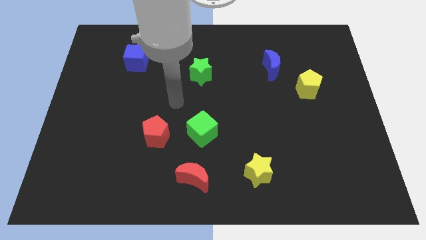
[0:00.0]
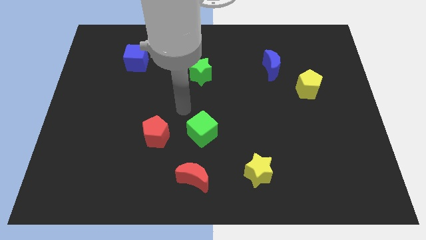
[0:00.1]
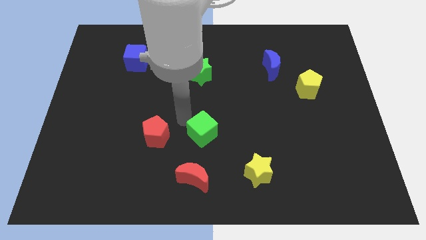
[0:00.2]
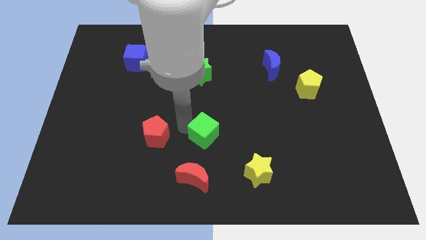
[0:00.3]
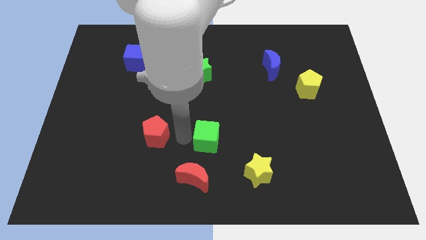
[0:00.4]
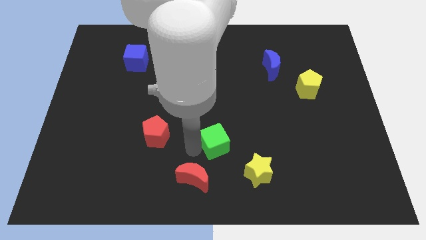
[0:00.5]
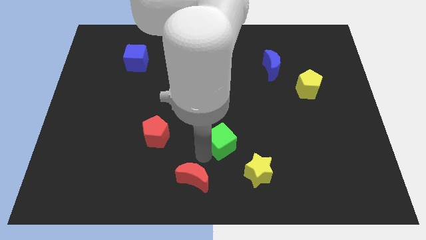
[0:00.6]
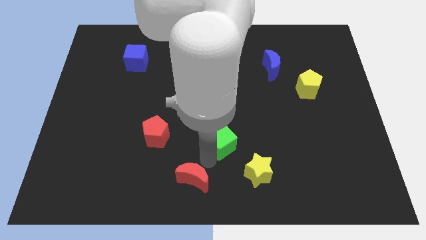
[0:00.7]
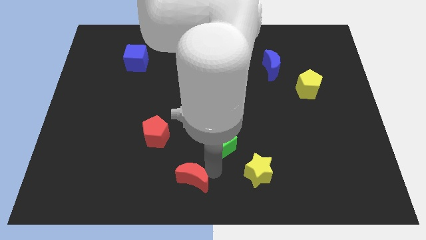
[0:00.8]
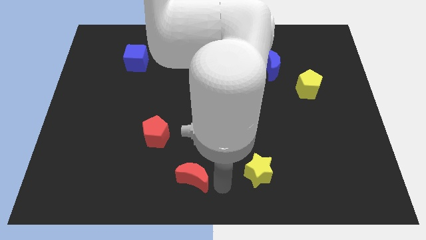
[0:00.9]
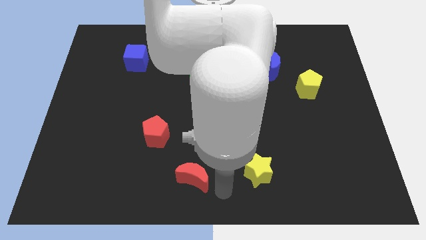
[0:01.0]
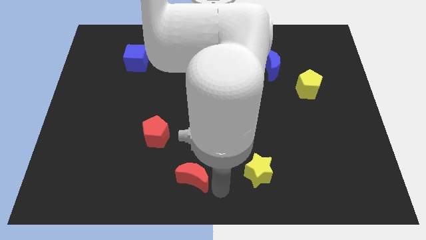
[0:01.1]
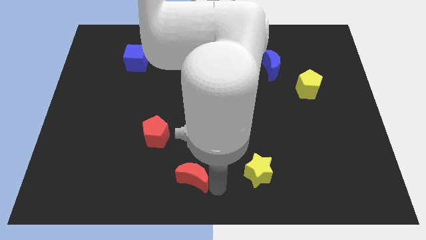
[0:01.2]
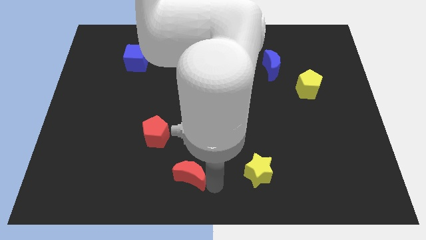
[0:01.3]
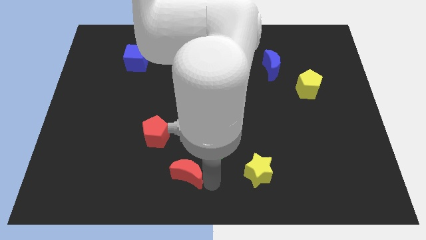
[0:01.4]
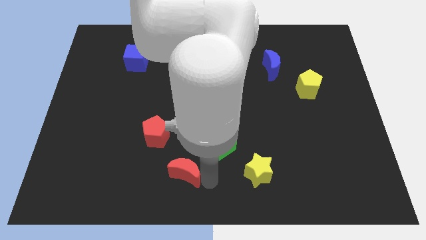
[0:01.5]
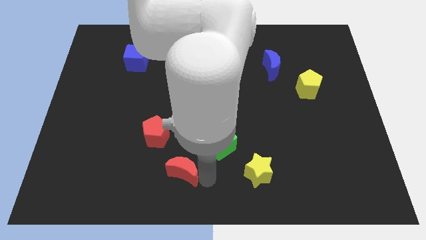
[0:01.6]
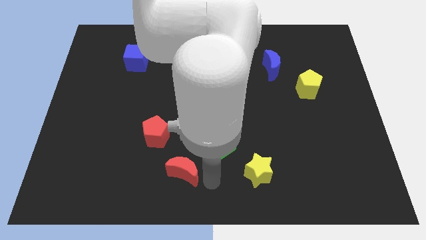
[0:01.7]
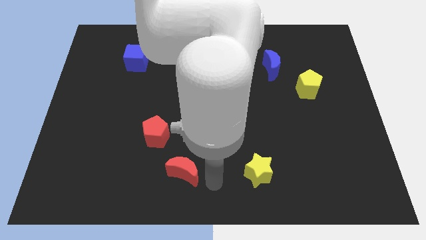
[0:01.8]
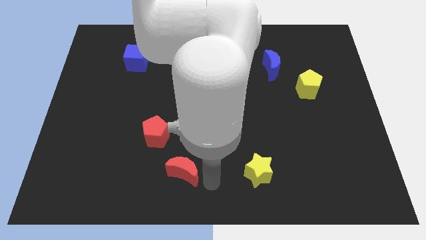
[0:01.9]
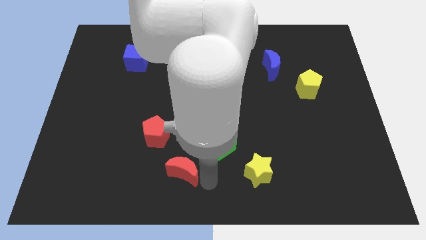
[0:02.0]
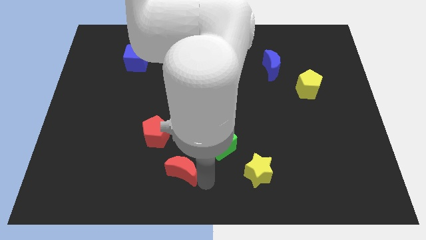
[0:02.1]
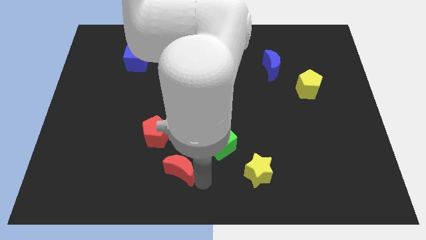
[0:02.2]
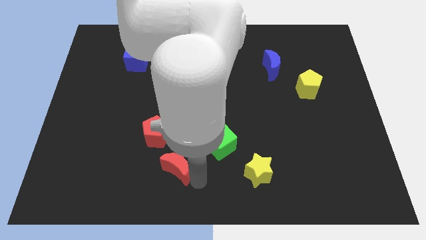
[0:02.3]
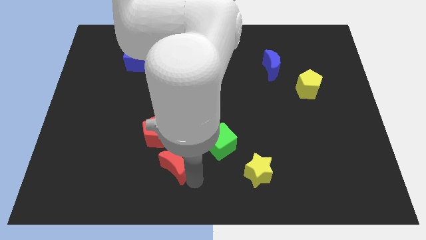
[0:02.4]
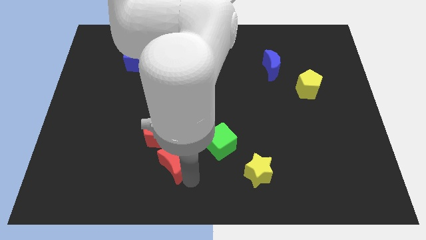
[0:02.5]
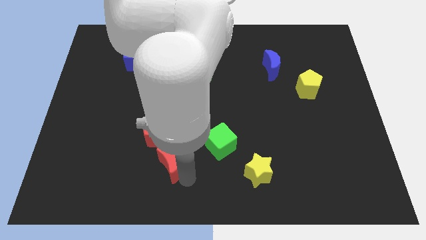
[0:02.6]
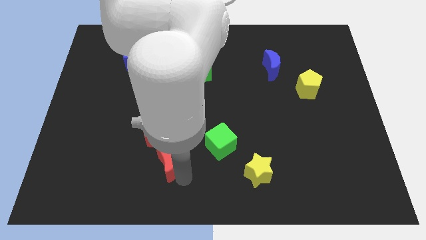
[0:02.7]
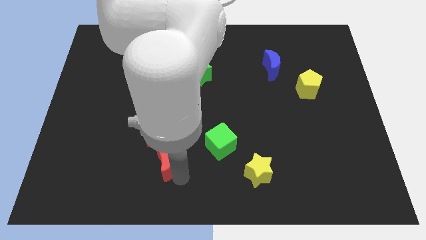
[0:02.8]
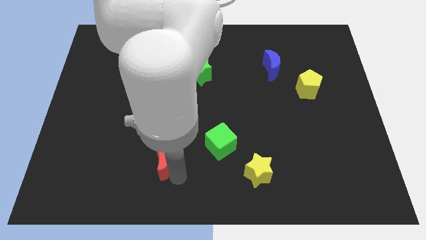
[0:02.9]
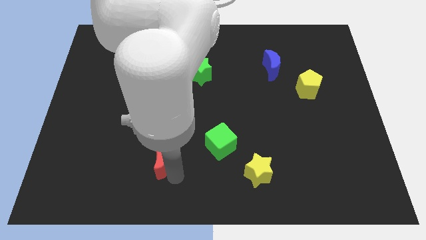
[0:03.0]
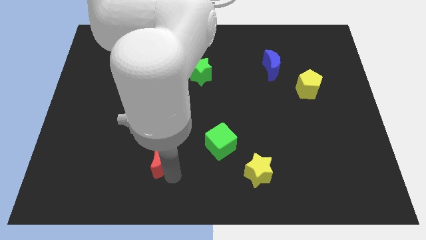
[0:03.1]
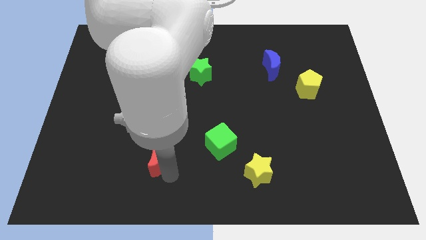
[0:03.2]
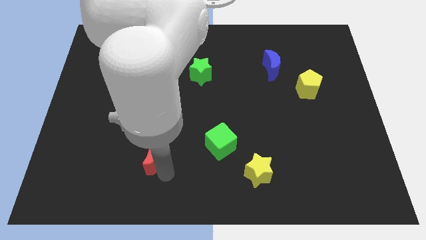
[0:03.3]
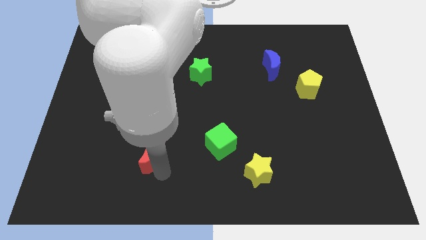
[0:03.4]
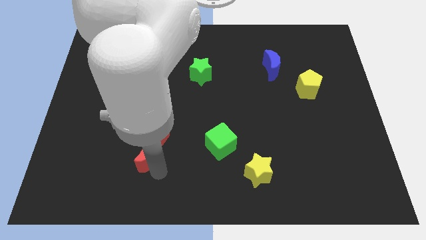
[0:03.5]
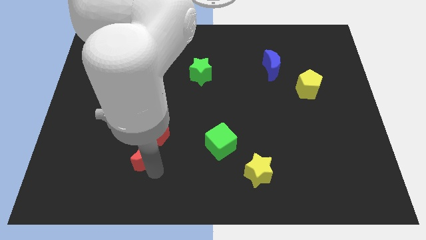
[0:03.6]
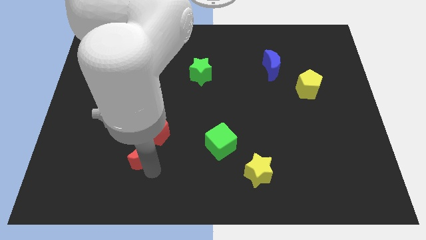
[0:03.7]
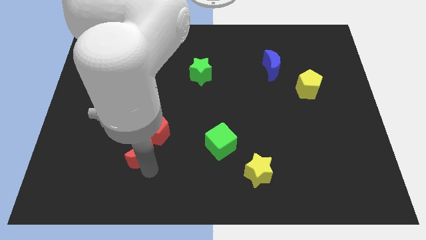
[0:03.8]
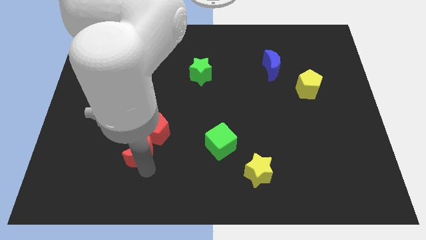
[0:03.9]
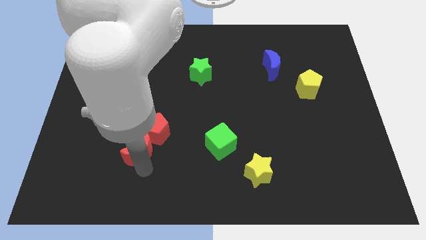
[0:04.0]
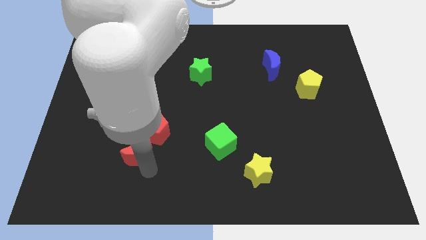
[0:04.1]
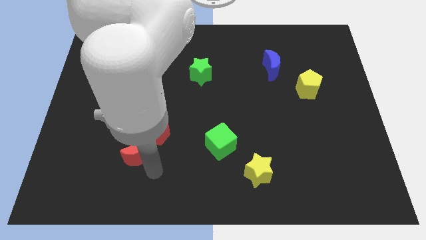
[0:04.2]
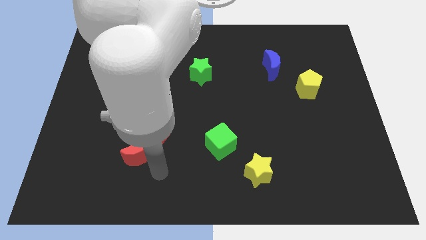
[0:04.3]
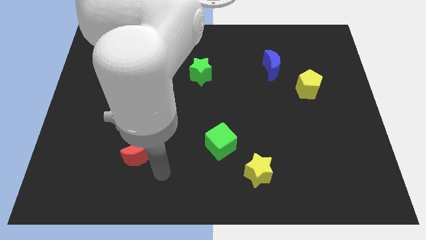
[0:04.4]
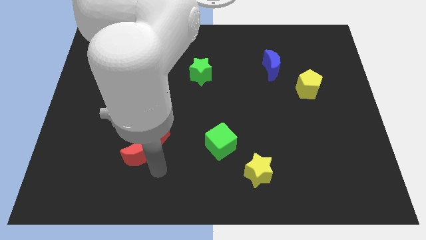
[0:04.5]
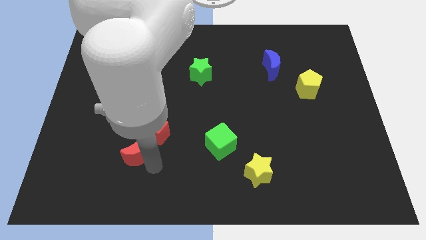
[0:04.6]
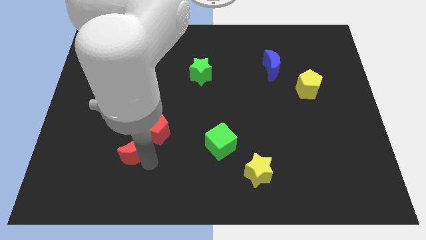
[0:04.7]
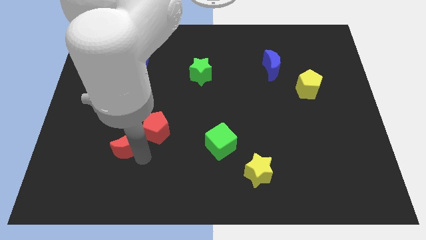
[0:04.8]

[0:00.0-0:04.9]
put the red moon just left of the red pentagon

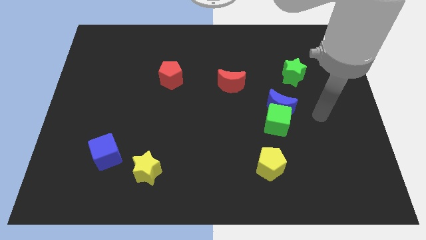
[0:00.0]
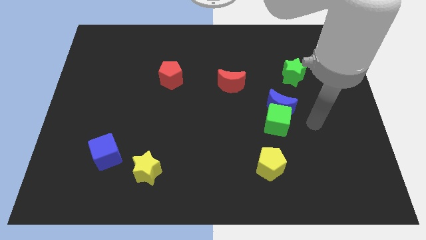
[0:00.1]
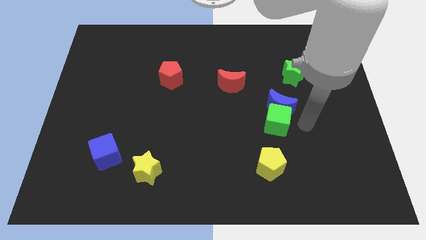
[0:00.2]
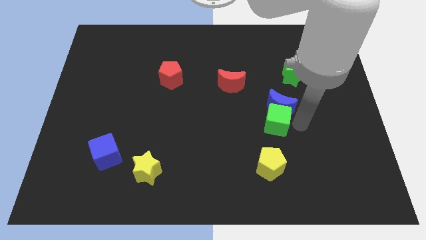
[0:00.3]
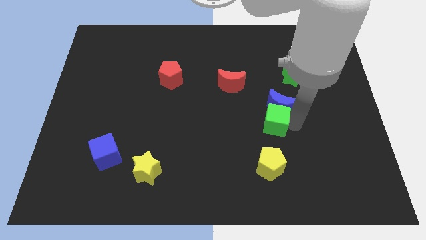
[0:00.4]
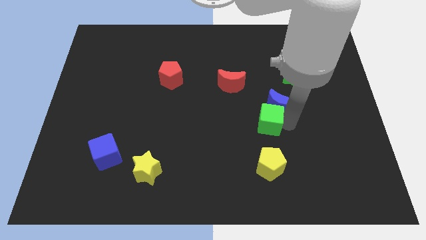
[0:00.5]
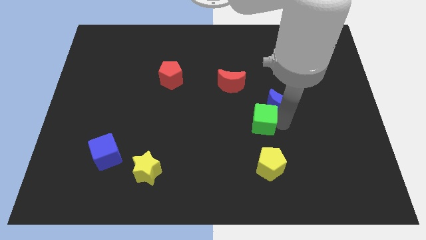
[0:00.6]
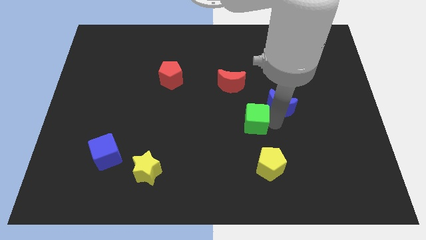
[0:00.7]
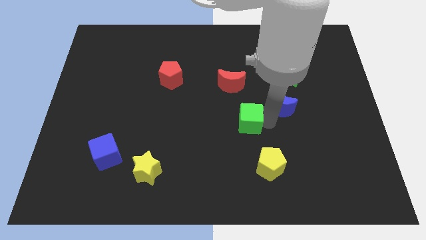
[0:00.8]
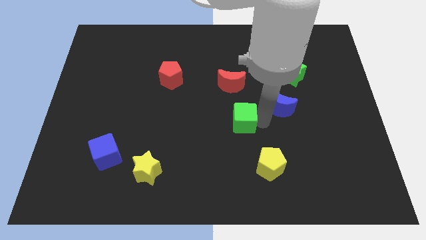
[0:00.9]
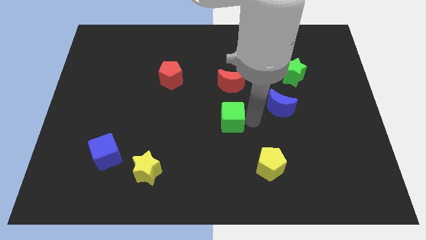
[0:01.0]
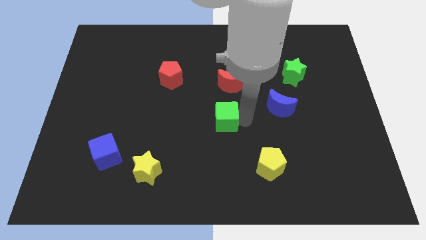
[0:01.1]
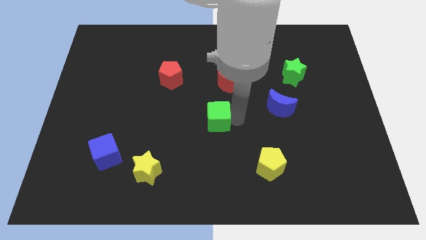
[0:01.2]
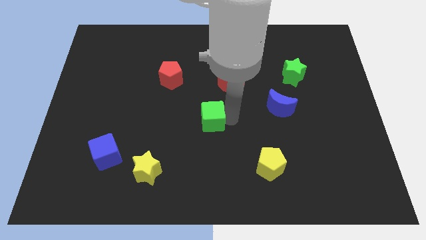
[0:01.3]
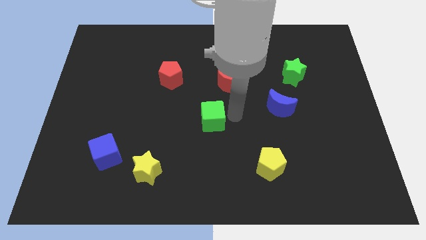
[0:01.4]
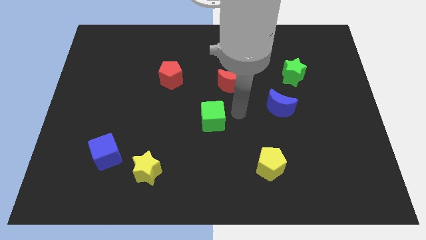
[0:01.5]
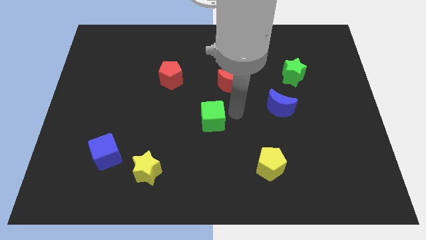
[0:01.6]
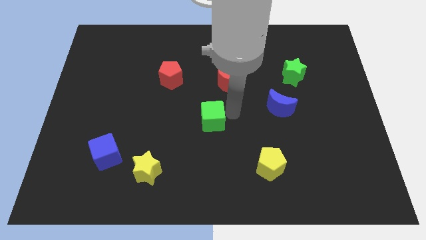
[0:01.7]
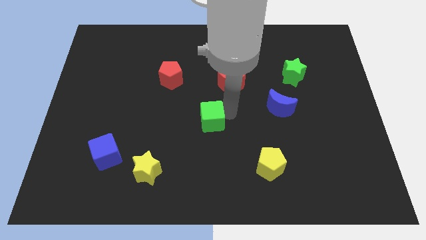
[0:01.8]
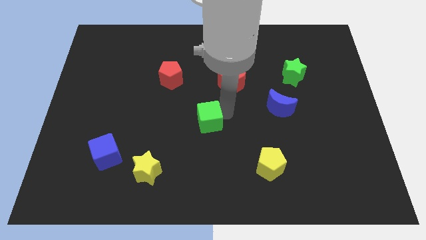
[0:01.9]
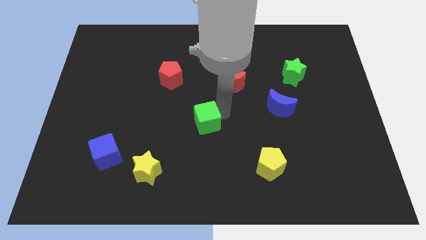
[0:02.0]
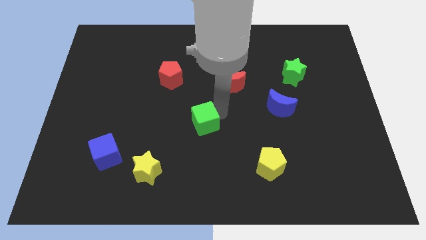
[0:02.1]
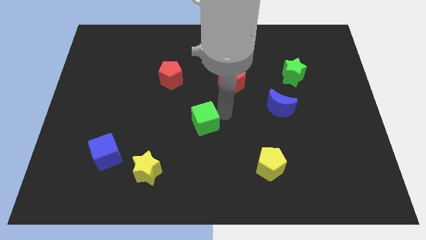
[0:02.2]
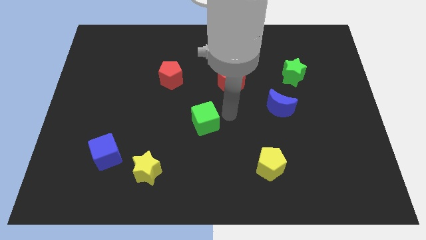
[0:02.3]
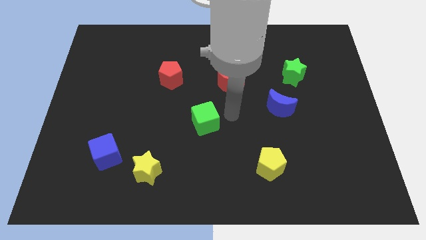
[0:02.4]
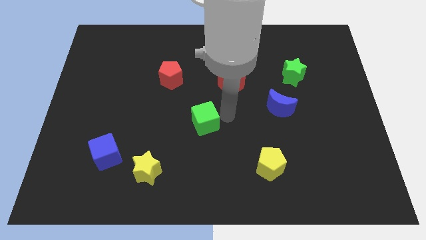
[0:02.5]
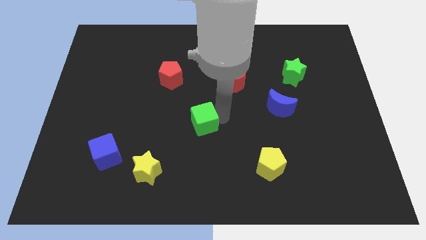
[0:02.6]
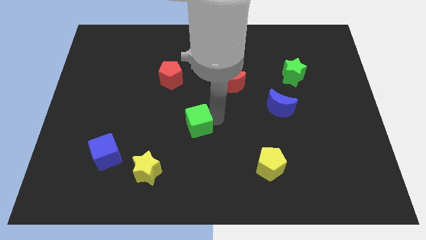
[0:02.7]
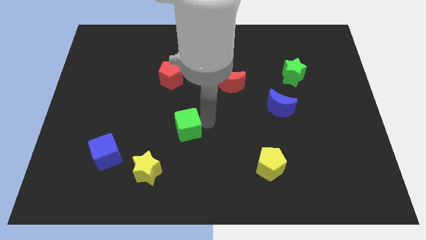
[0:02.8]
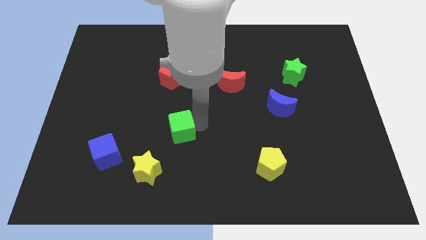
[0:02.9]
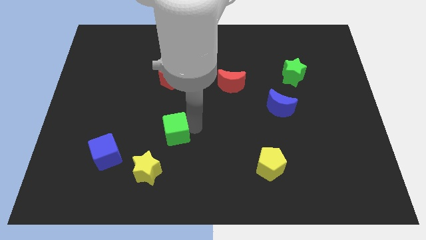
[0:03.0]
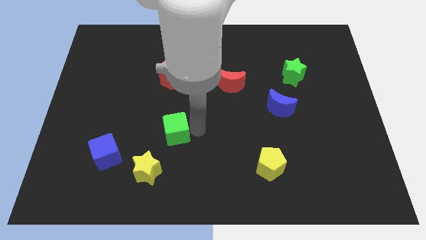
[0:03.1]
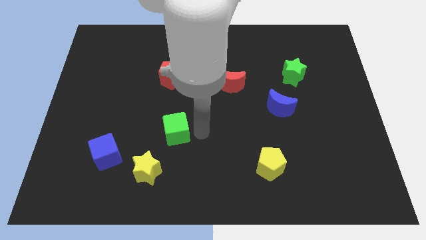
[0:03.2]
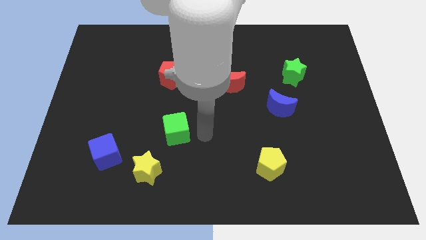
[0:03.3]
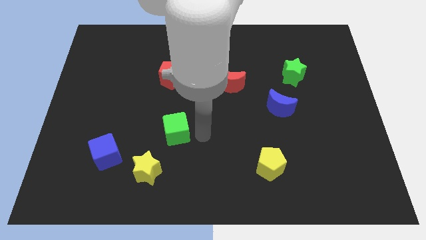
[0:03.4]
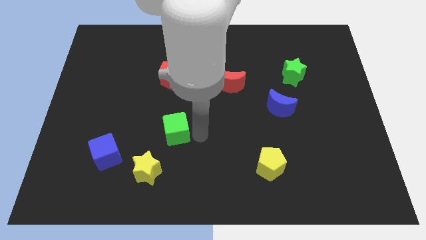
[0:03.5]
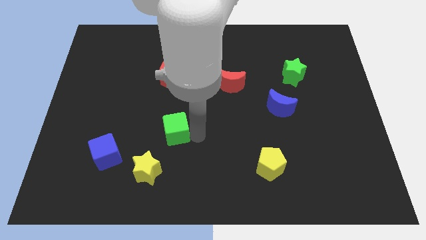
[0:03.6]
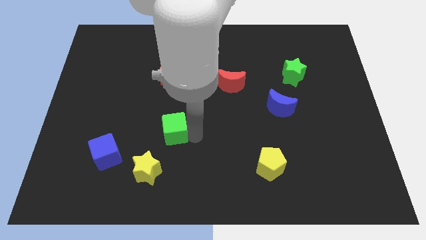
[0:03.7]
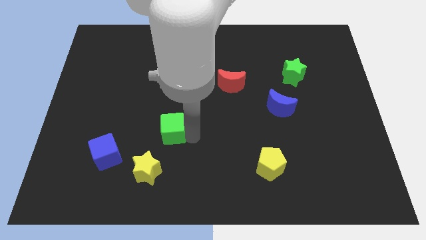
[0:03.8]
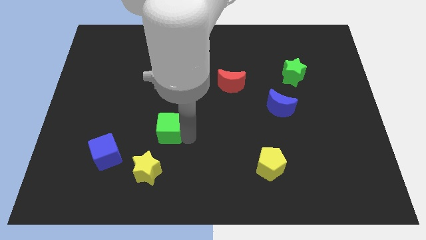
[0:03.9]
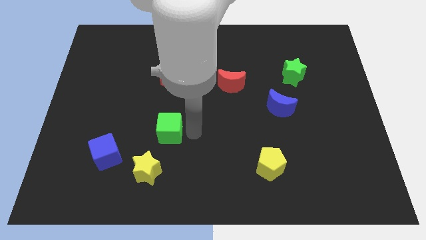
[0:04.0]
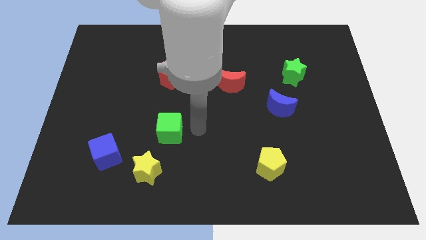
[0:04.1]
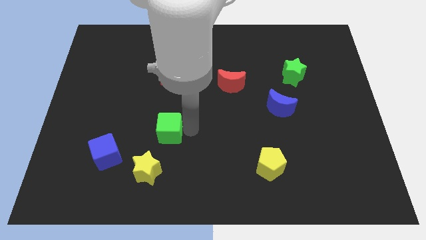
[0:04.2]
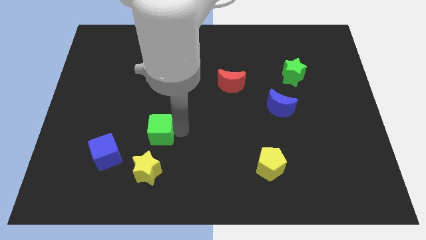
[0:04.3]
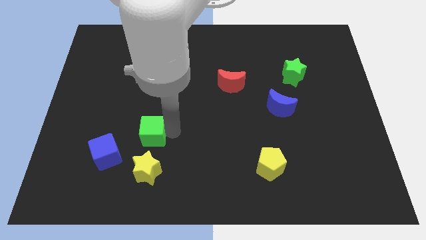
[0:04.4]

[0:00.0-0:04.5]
put the green cube to the top right side of the blue cube
